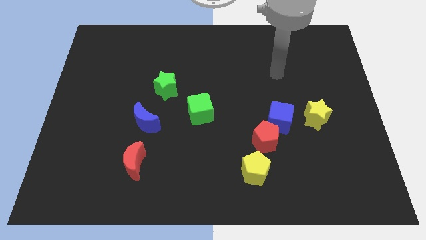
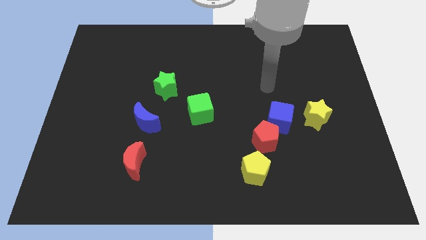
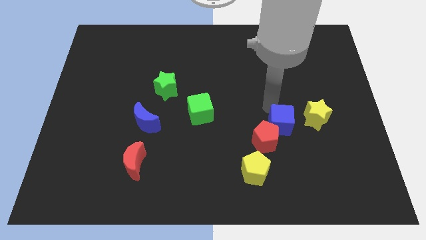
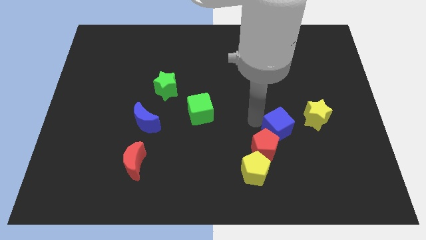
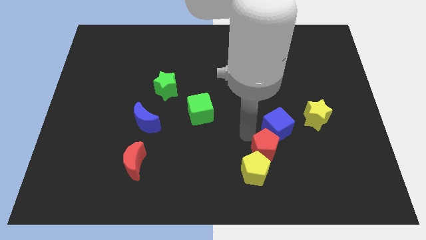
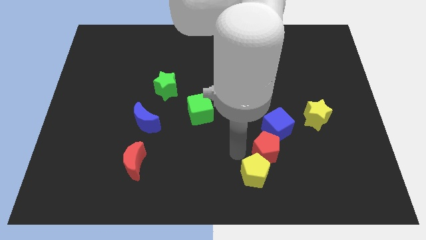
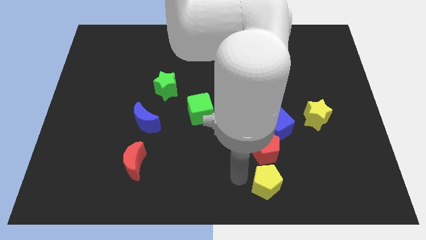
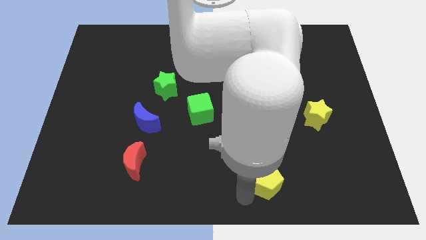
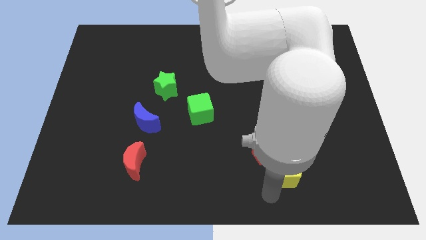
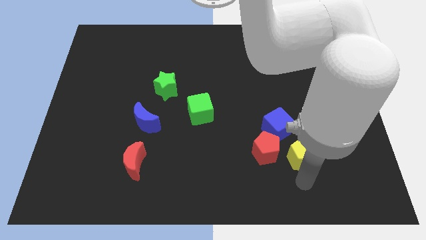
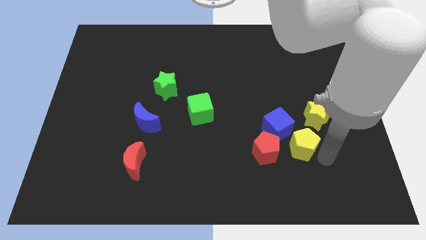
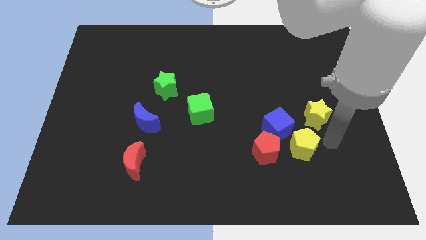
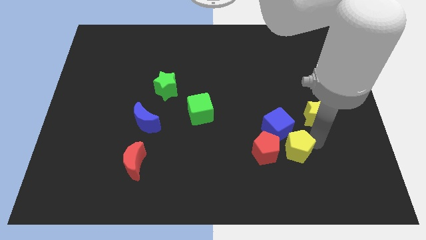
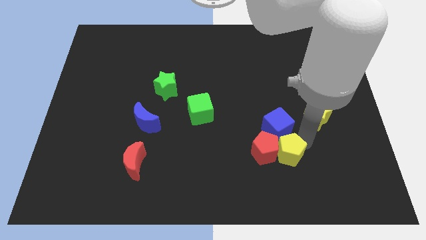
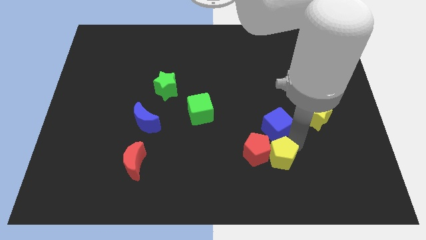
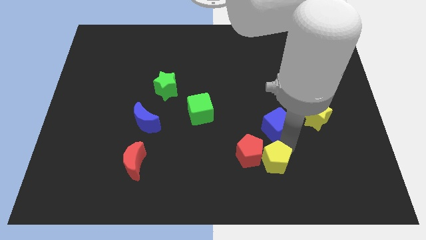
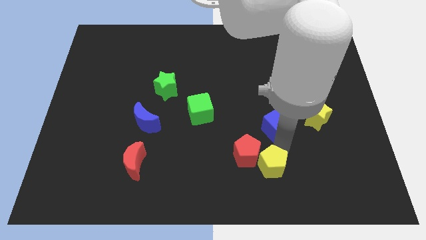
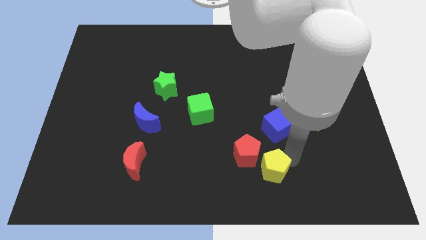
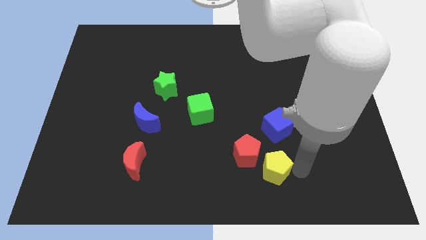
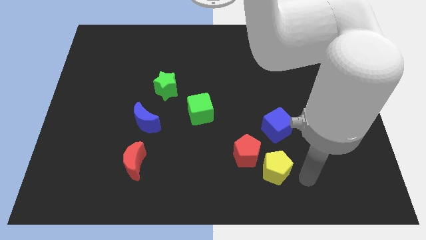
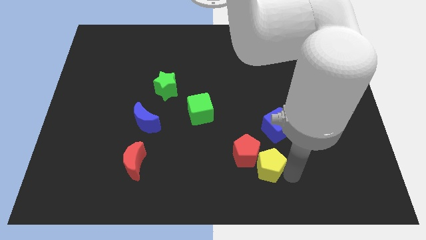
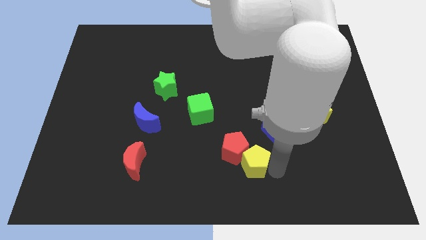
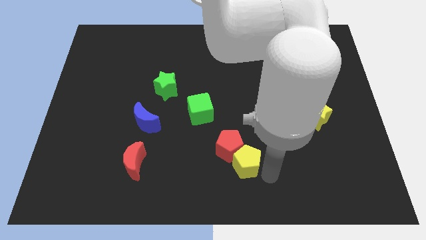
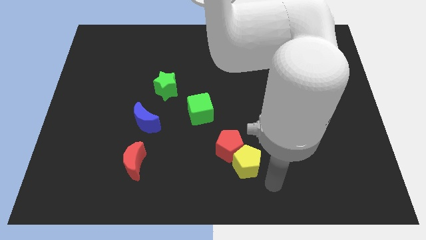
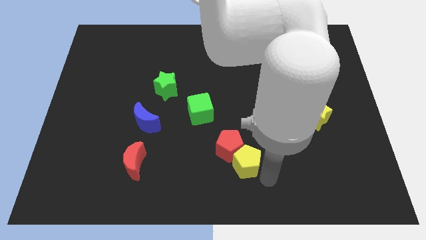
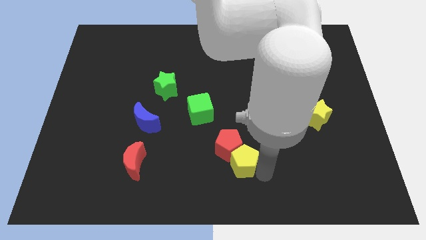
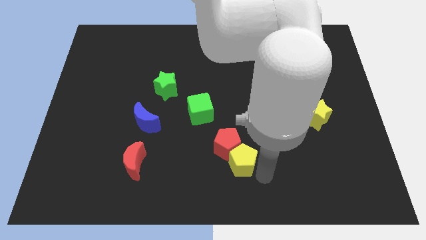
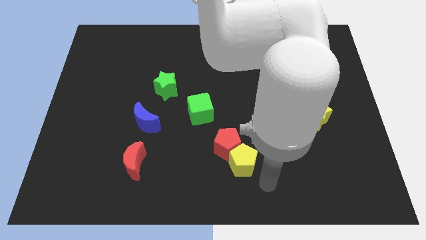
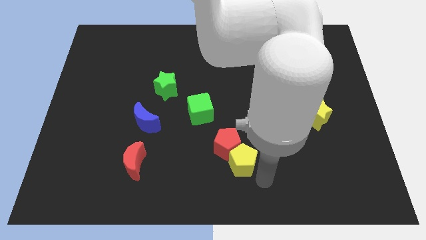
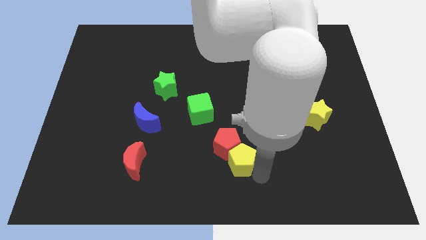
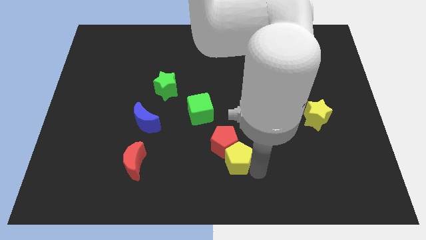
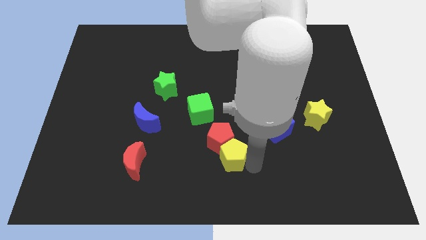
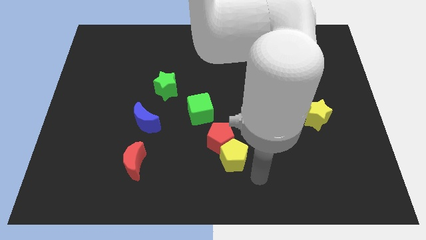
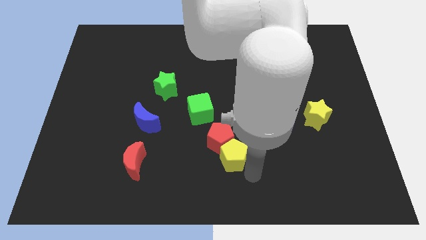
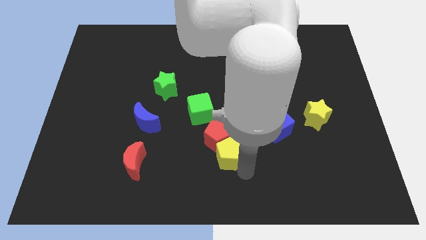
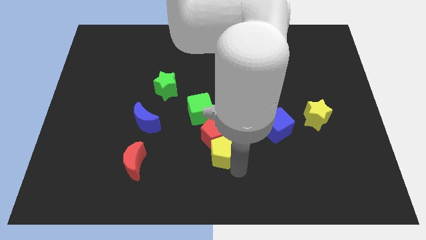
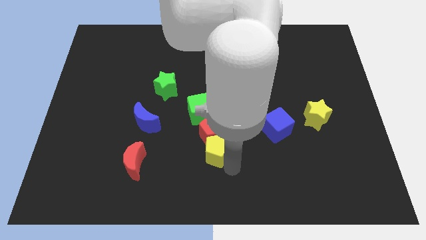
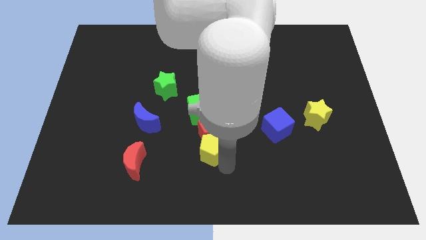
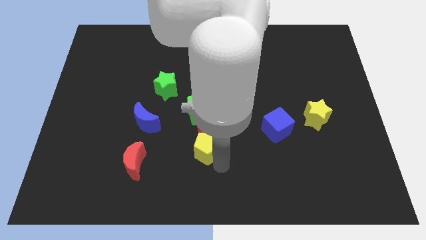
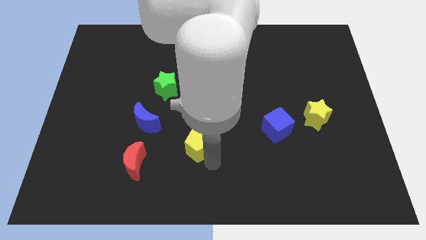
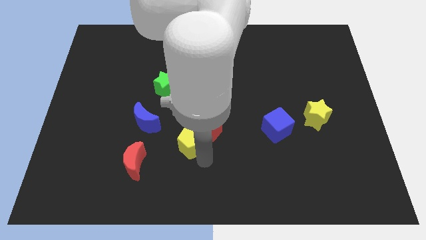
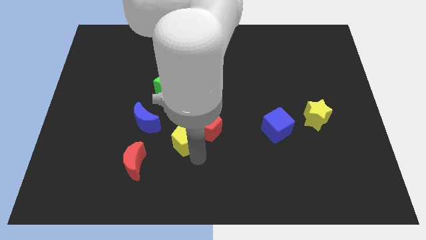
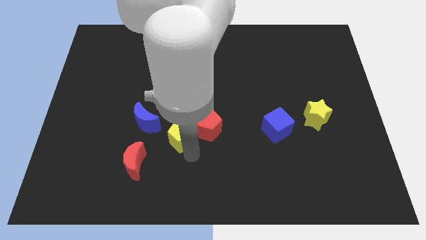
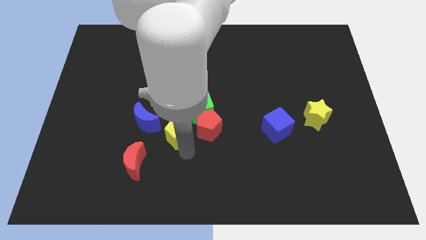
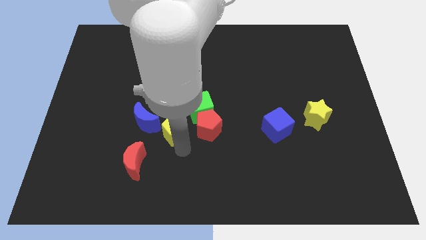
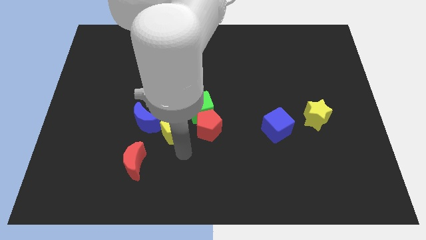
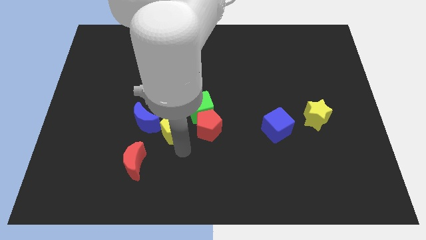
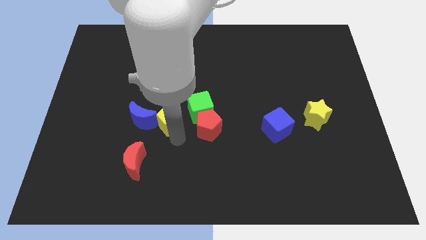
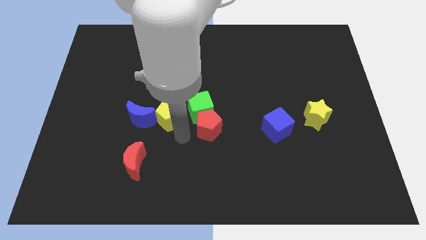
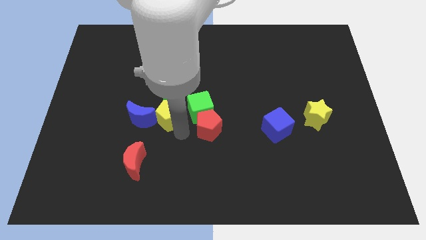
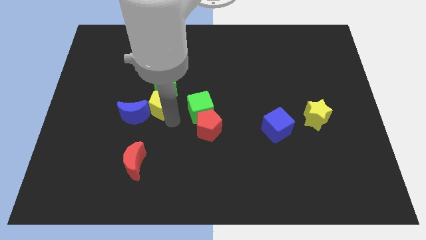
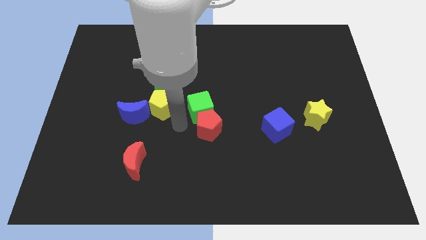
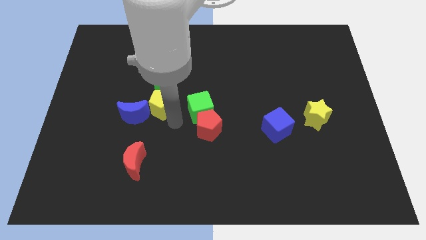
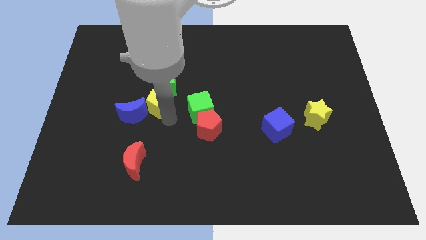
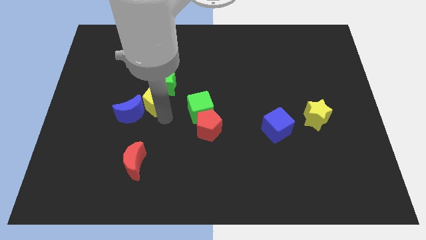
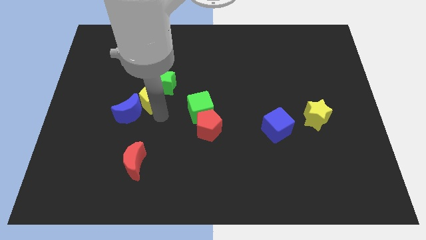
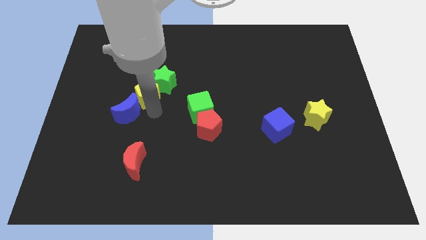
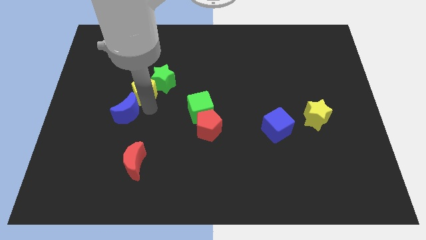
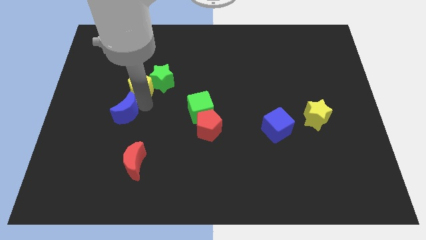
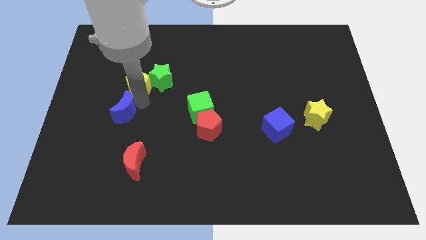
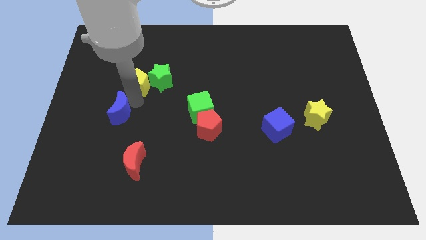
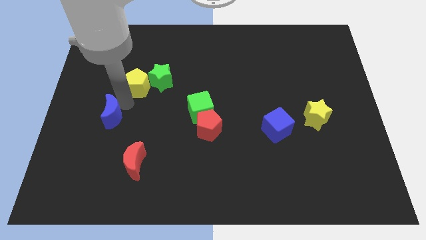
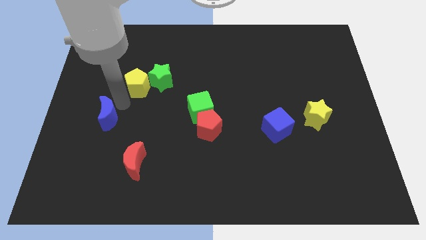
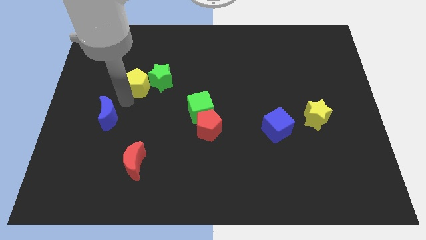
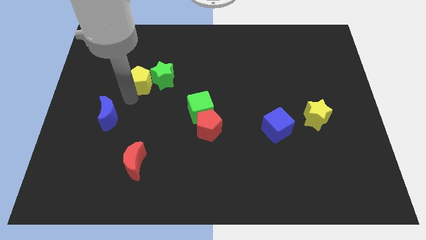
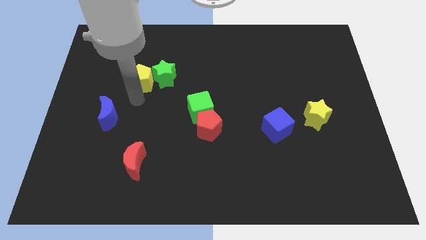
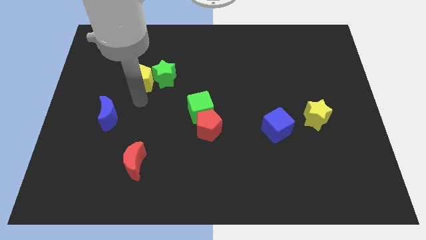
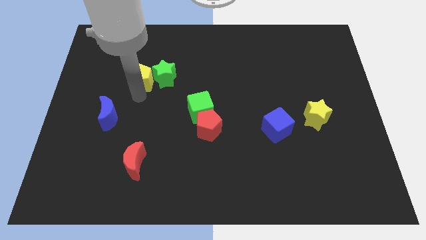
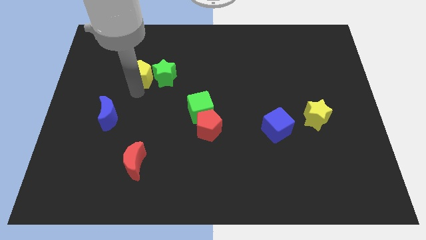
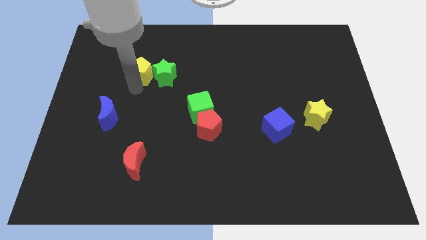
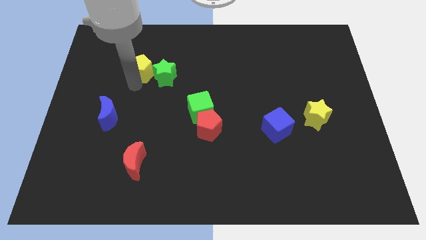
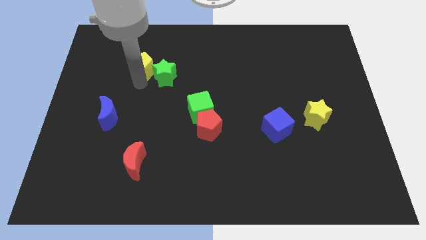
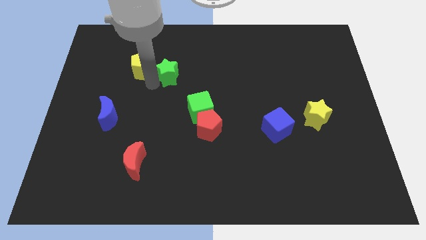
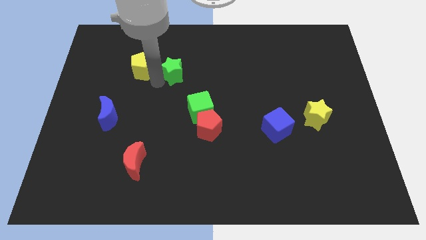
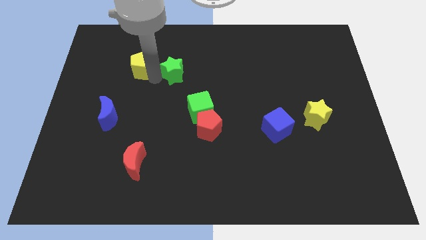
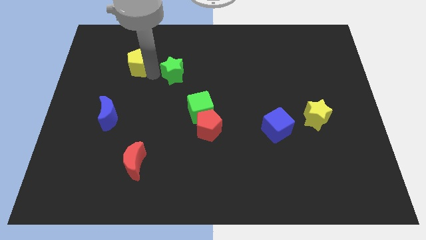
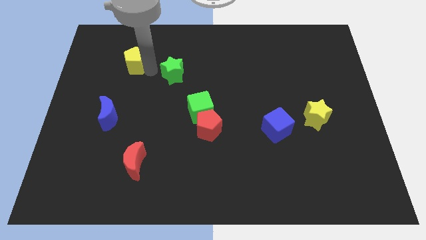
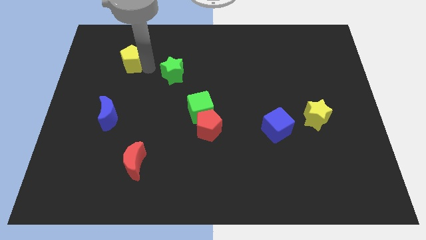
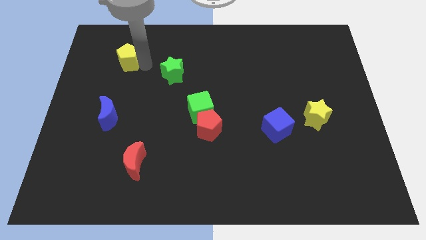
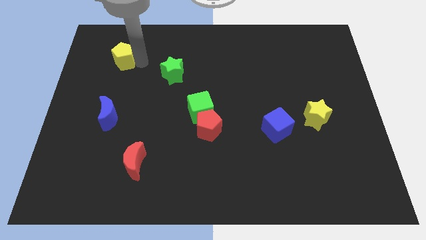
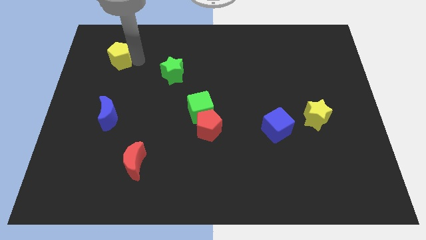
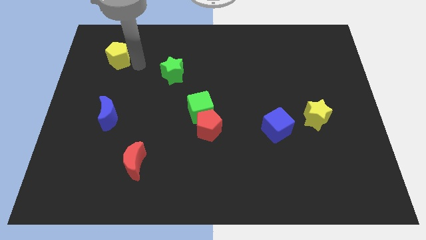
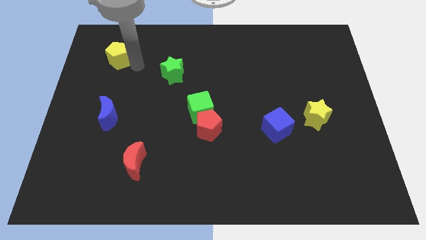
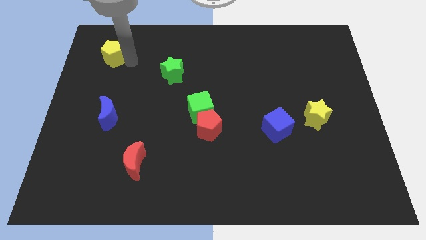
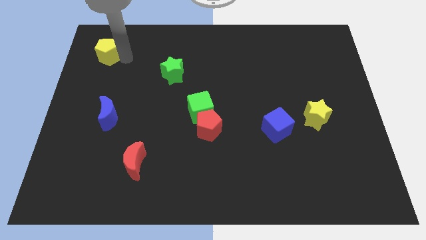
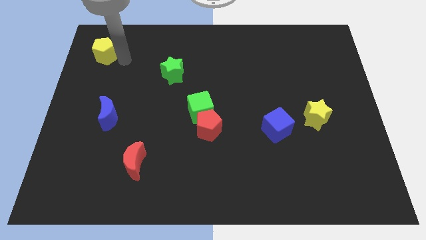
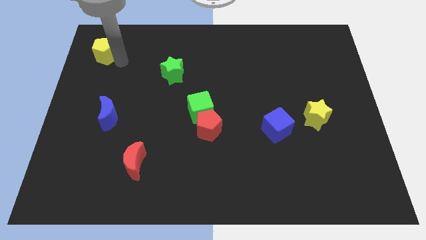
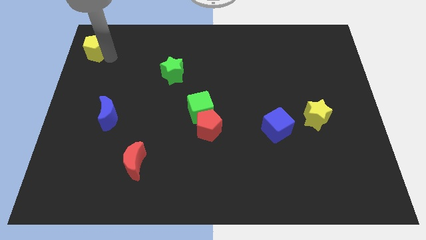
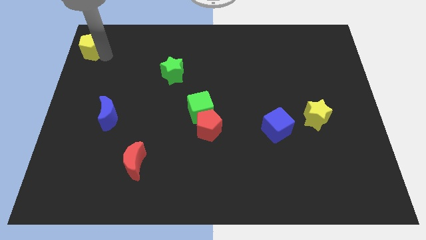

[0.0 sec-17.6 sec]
put the yellow pentagon to the top left of the board
